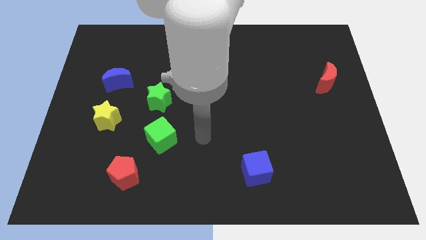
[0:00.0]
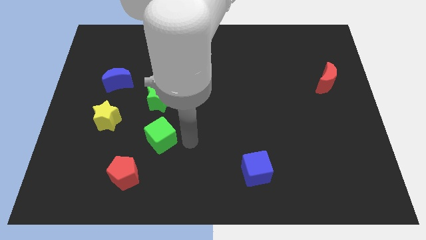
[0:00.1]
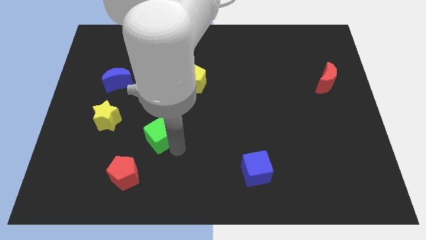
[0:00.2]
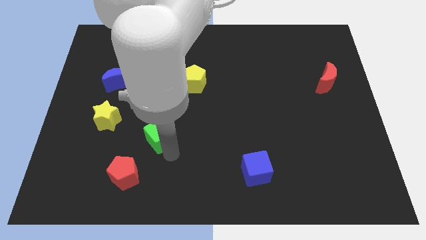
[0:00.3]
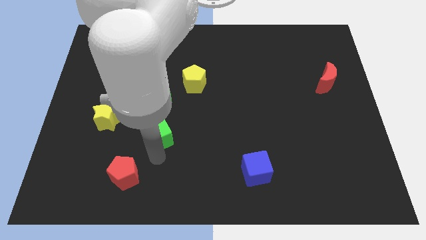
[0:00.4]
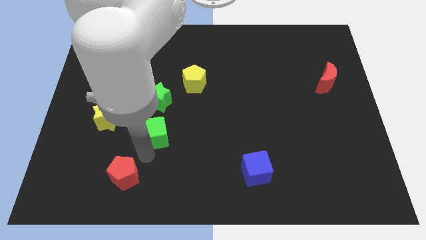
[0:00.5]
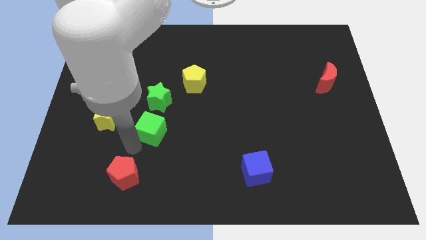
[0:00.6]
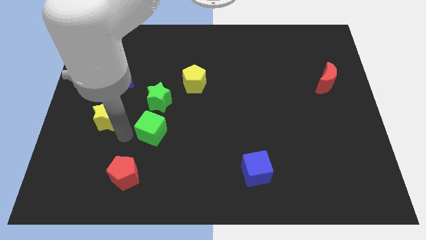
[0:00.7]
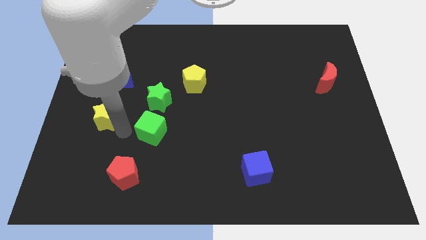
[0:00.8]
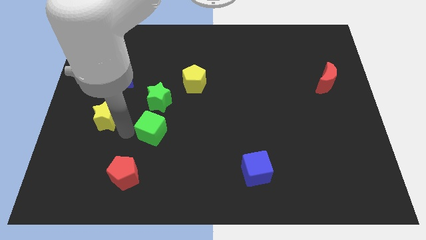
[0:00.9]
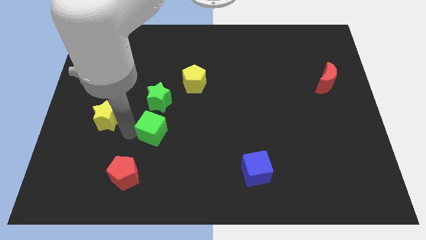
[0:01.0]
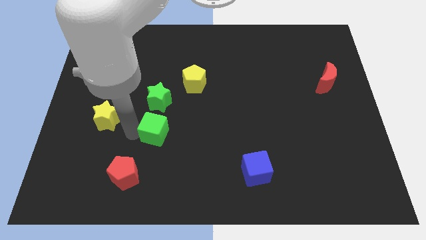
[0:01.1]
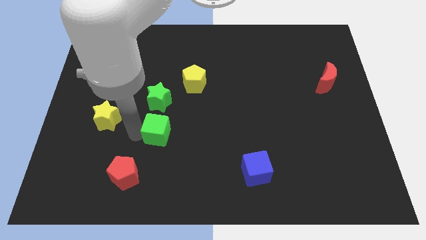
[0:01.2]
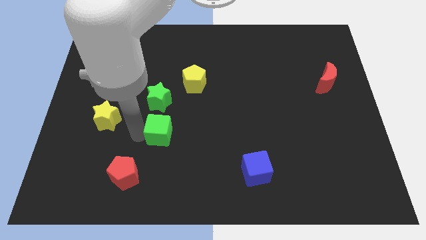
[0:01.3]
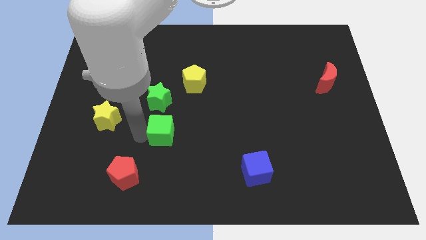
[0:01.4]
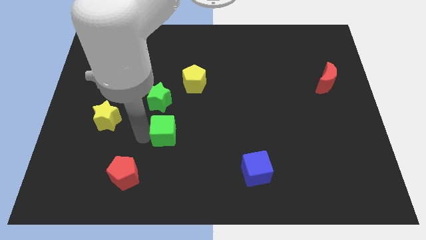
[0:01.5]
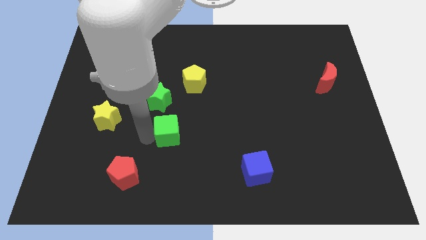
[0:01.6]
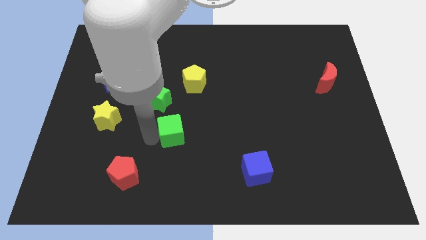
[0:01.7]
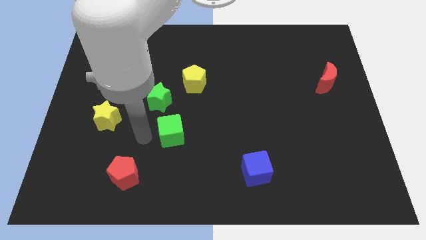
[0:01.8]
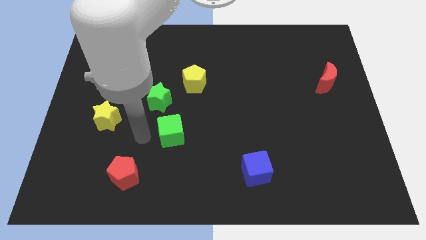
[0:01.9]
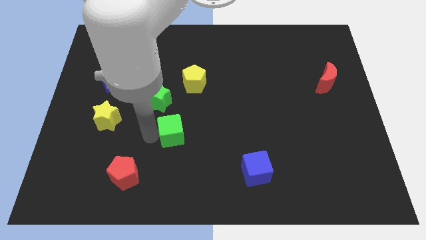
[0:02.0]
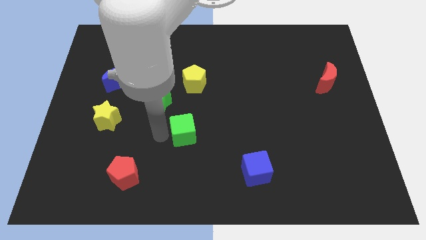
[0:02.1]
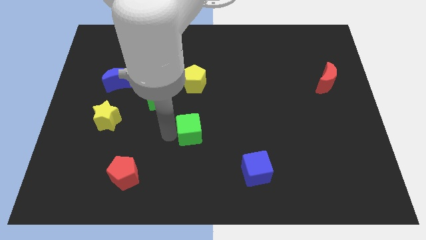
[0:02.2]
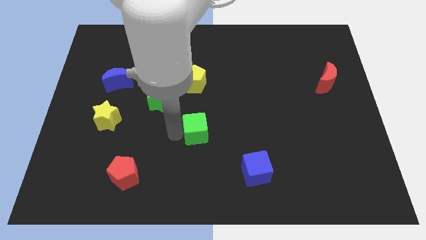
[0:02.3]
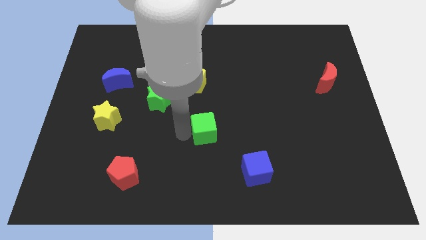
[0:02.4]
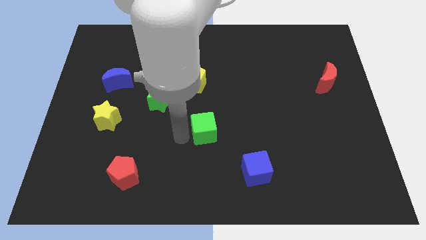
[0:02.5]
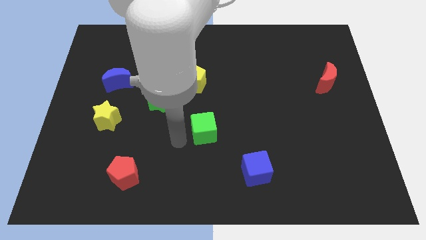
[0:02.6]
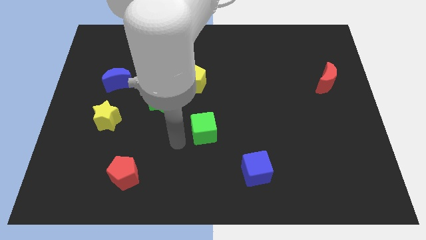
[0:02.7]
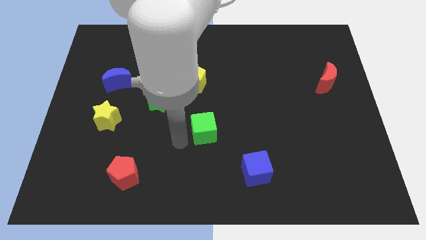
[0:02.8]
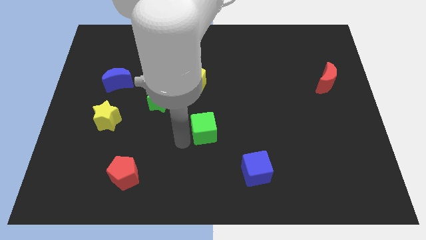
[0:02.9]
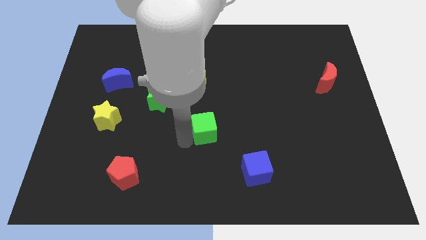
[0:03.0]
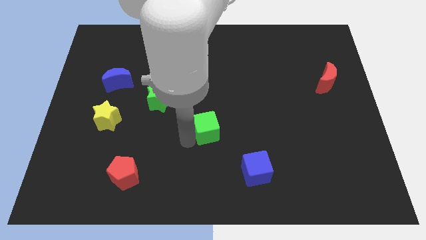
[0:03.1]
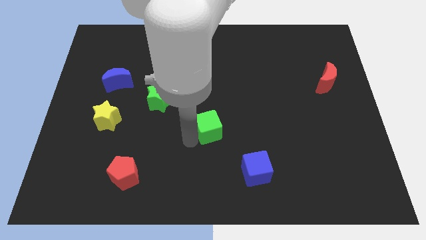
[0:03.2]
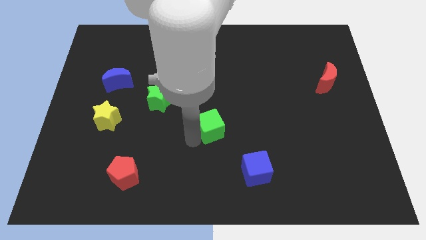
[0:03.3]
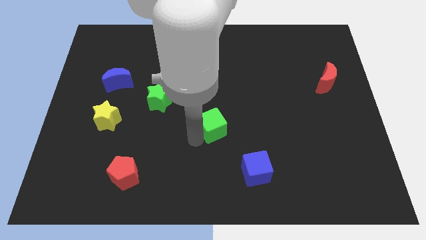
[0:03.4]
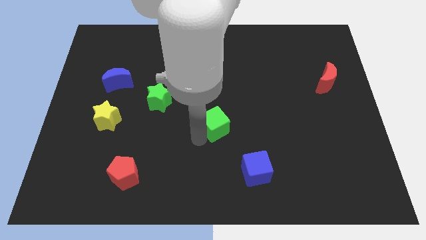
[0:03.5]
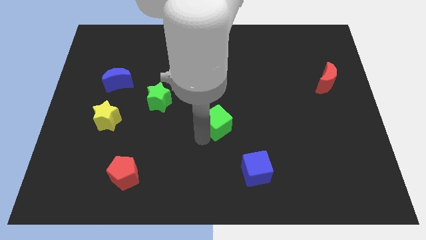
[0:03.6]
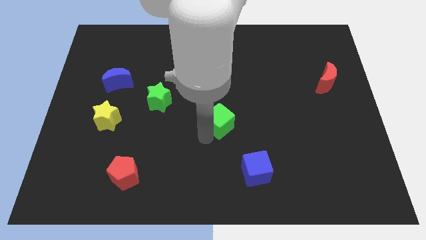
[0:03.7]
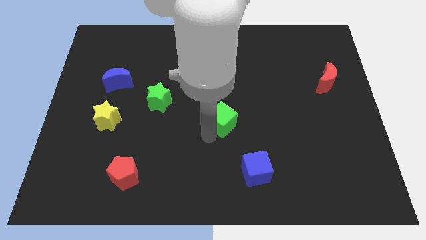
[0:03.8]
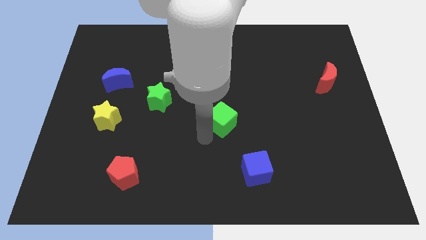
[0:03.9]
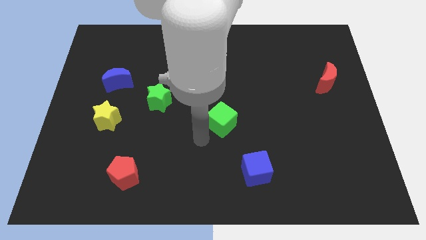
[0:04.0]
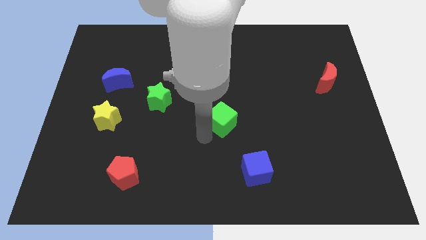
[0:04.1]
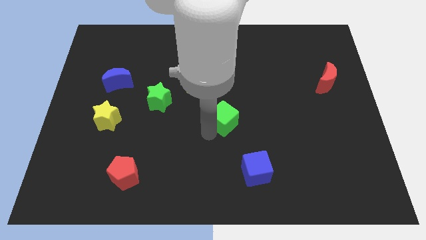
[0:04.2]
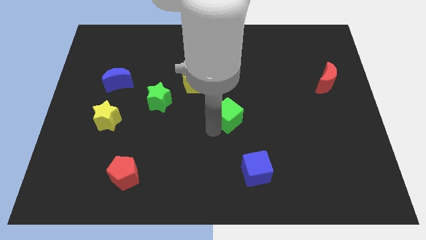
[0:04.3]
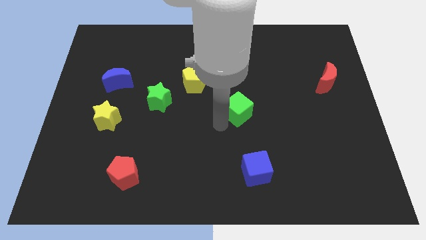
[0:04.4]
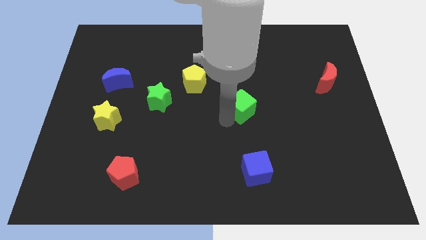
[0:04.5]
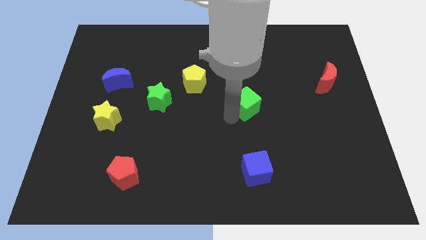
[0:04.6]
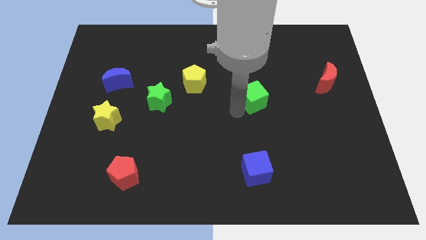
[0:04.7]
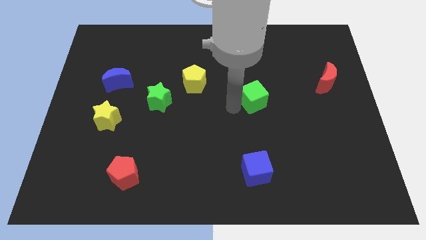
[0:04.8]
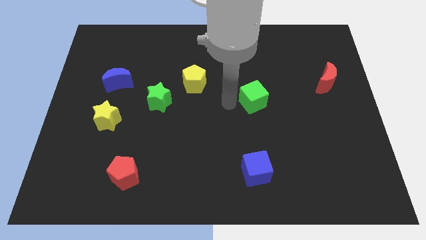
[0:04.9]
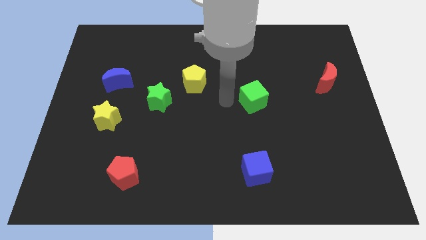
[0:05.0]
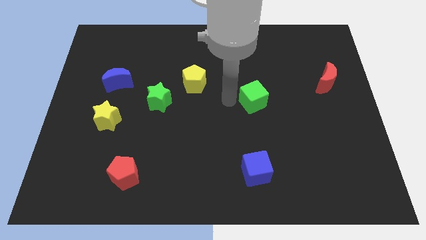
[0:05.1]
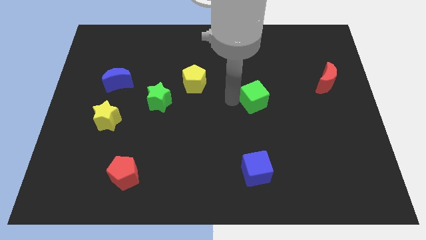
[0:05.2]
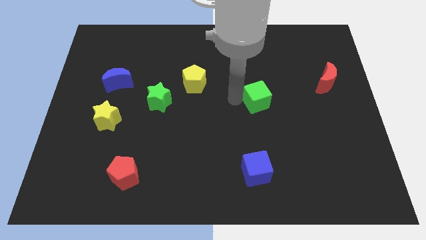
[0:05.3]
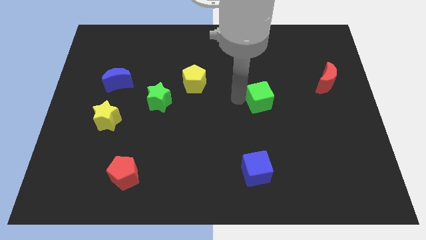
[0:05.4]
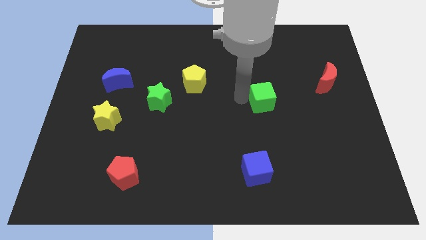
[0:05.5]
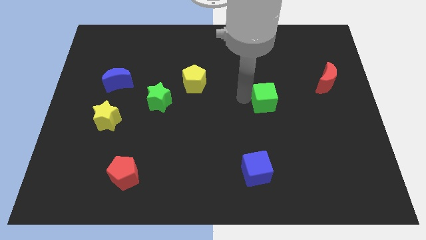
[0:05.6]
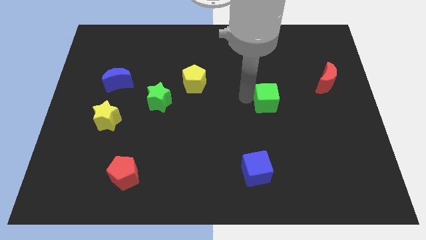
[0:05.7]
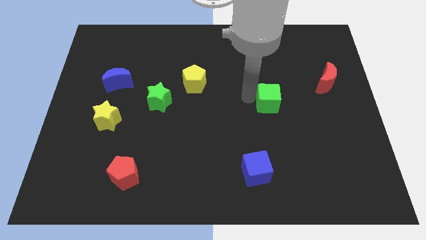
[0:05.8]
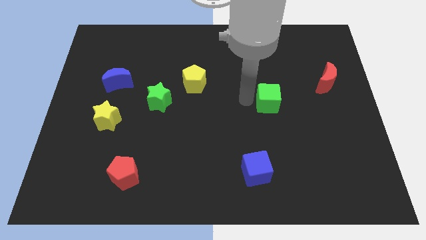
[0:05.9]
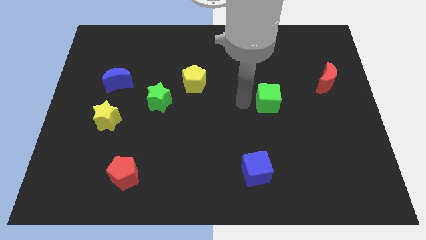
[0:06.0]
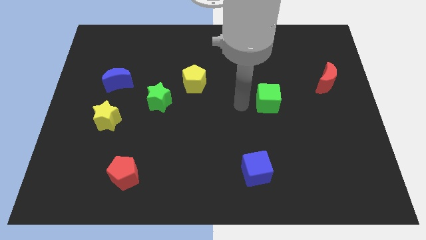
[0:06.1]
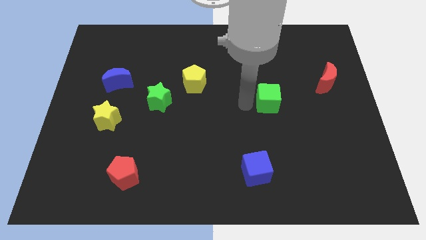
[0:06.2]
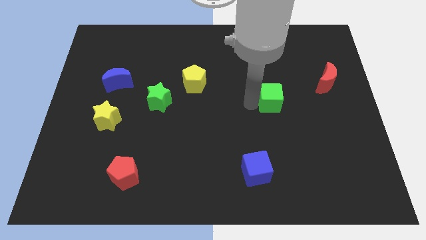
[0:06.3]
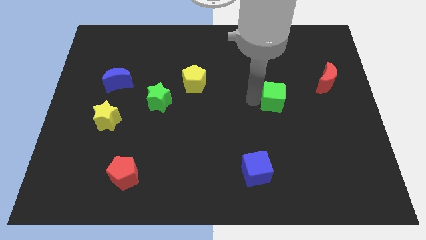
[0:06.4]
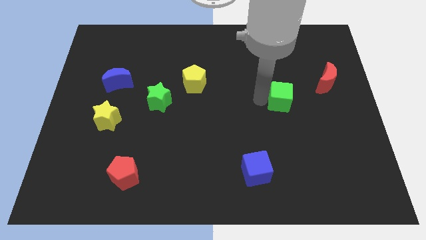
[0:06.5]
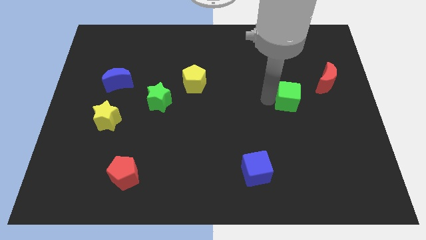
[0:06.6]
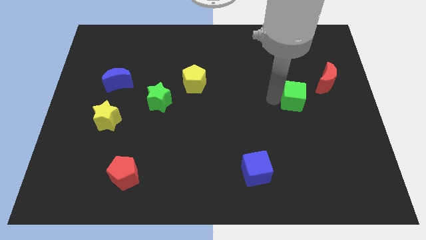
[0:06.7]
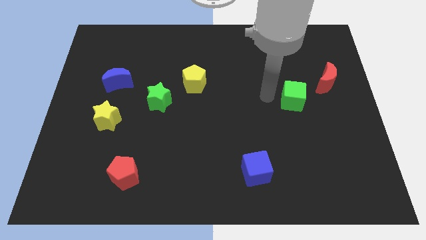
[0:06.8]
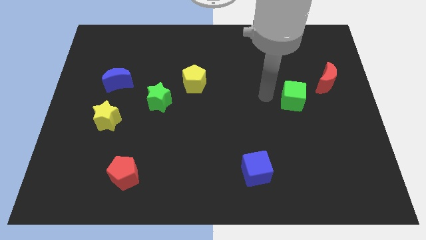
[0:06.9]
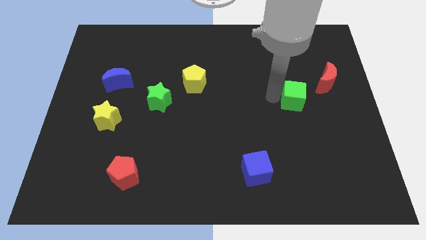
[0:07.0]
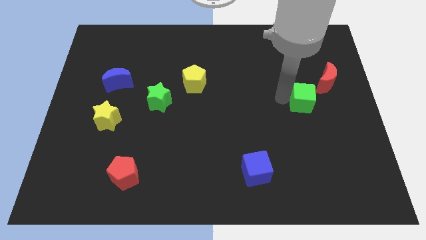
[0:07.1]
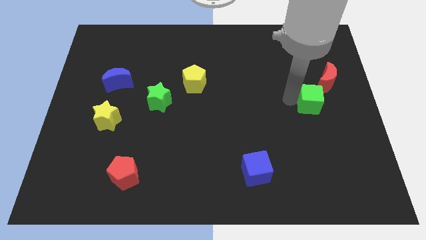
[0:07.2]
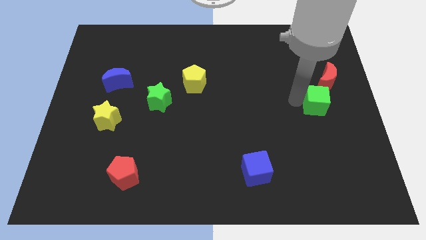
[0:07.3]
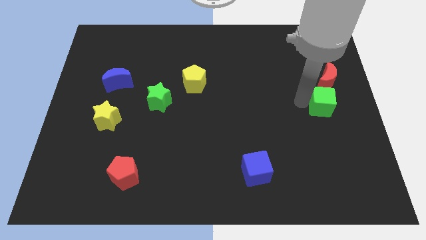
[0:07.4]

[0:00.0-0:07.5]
move the green cube to the right side
